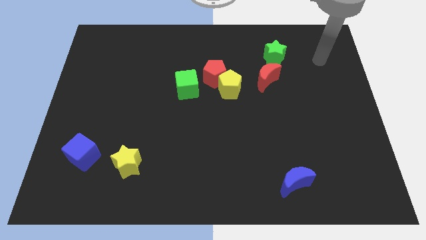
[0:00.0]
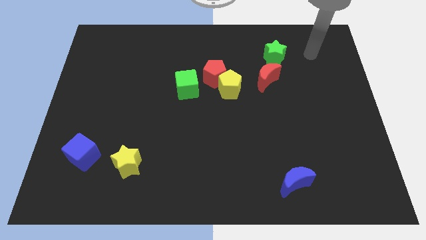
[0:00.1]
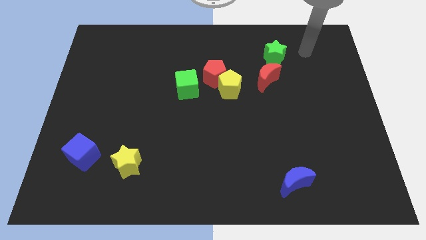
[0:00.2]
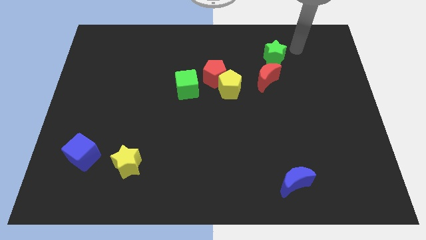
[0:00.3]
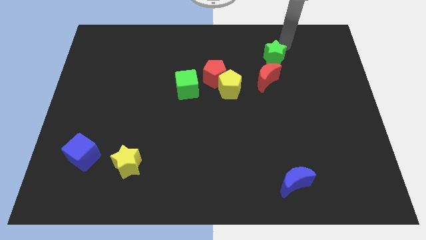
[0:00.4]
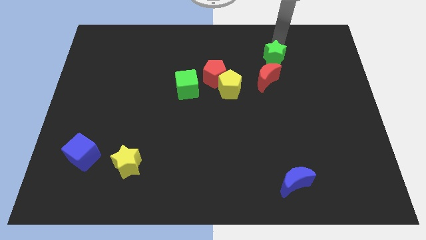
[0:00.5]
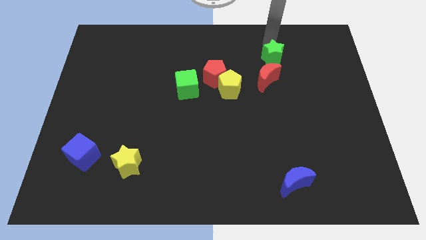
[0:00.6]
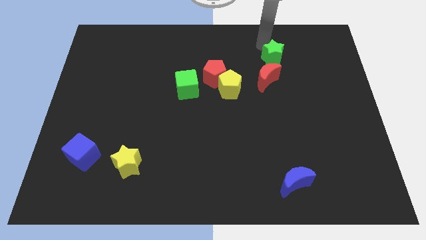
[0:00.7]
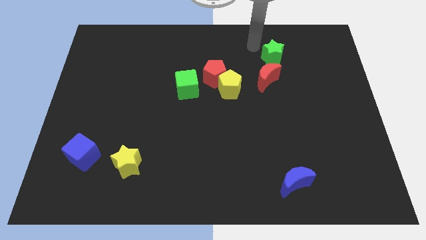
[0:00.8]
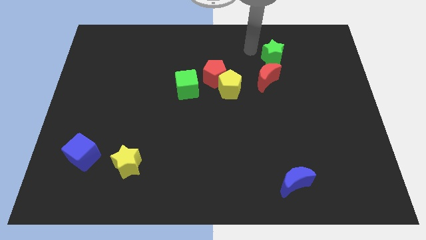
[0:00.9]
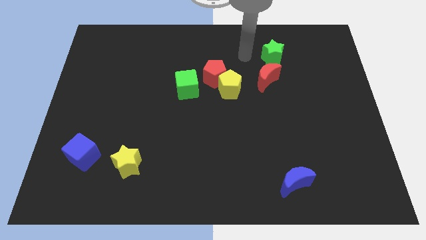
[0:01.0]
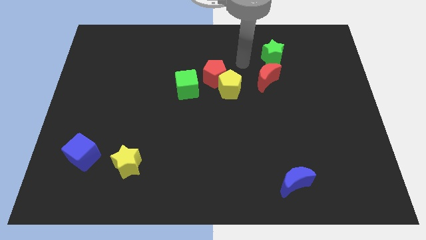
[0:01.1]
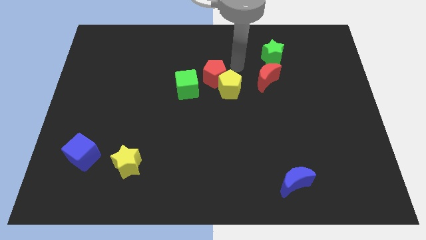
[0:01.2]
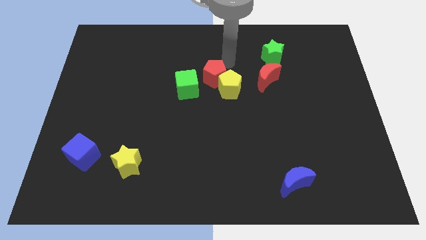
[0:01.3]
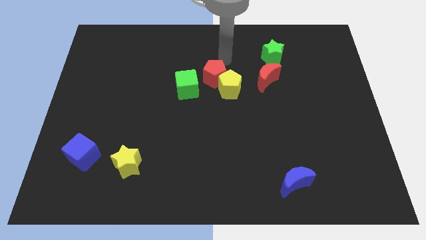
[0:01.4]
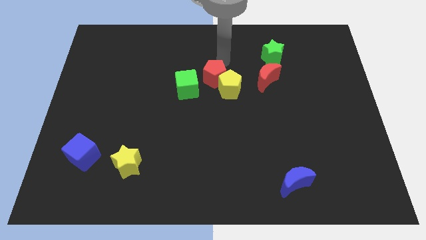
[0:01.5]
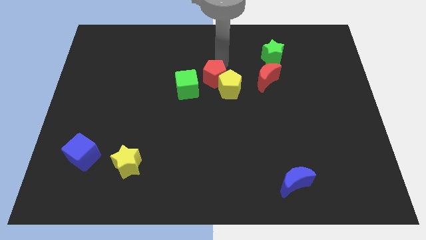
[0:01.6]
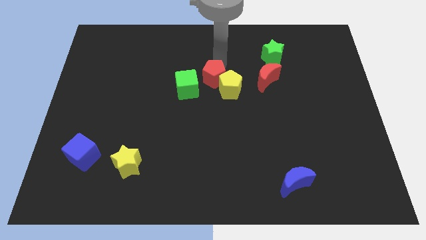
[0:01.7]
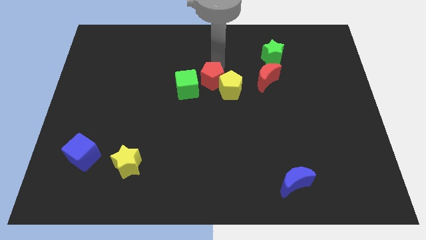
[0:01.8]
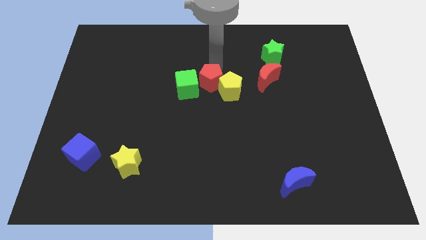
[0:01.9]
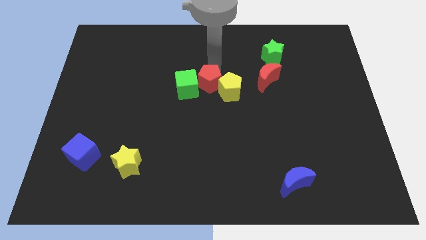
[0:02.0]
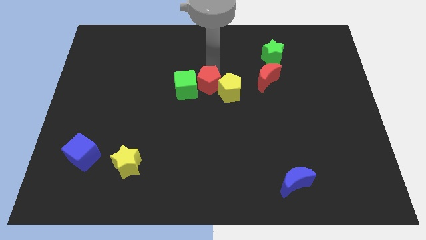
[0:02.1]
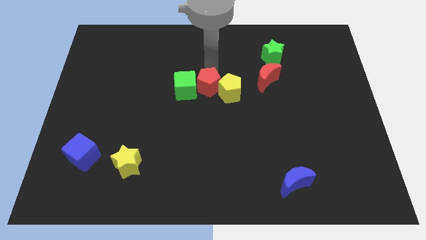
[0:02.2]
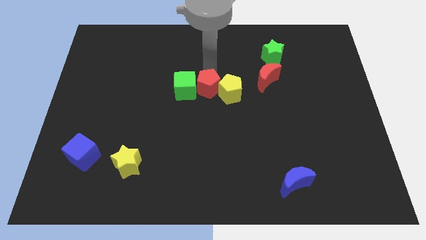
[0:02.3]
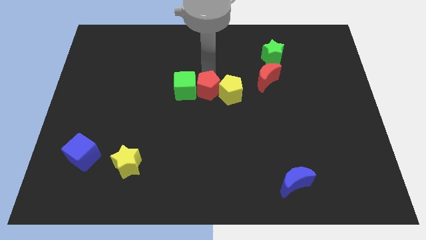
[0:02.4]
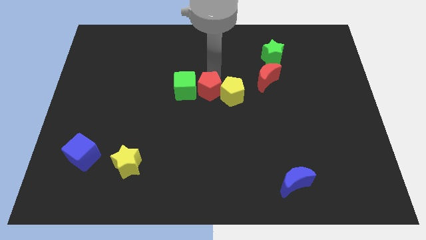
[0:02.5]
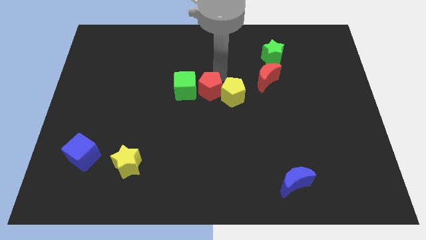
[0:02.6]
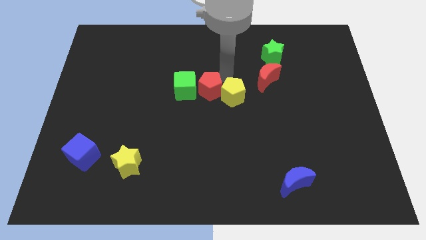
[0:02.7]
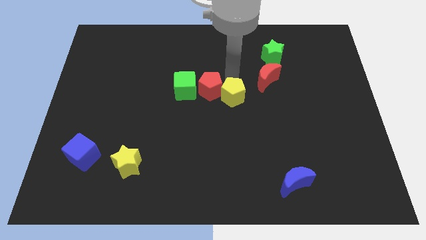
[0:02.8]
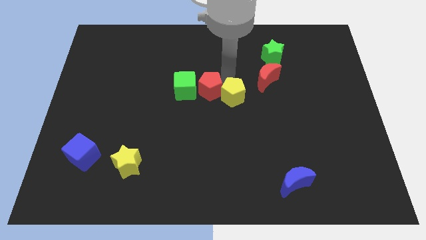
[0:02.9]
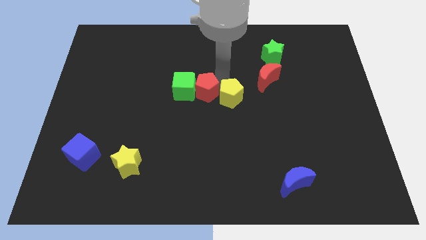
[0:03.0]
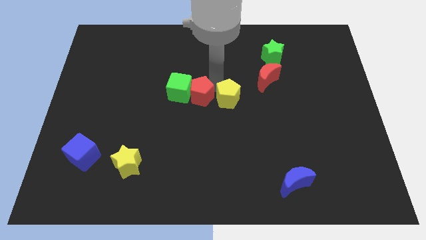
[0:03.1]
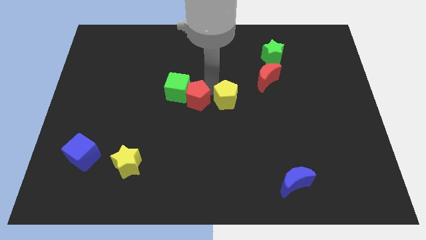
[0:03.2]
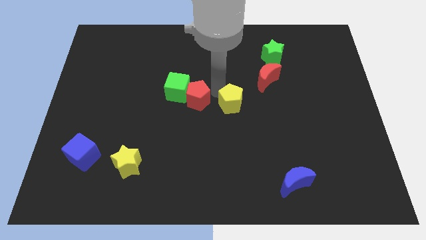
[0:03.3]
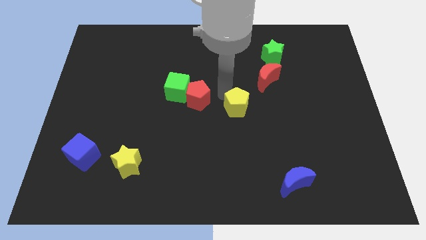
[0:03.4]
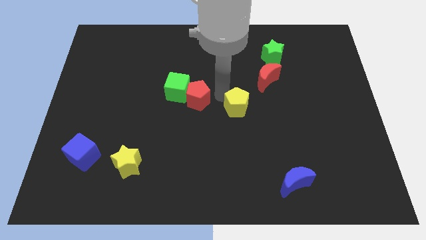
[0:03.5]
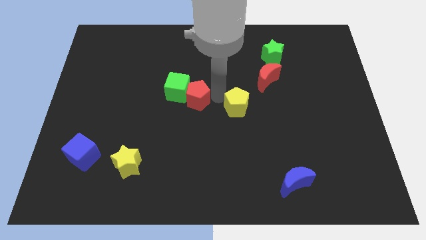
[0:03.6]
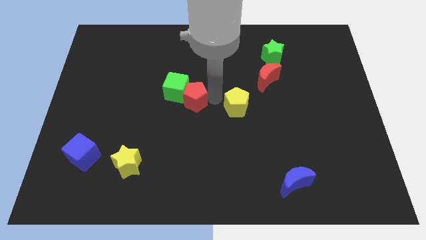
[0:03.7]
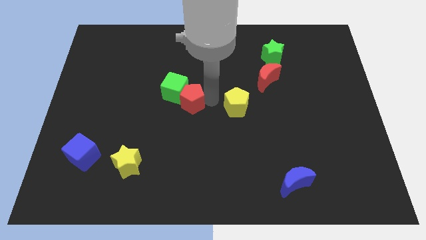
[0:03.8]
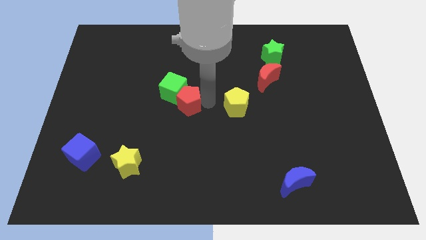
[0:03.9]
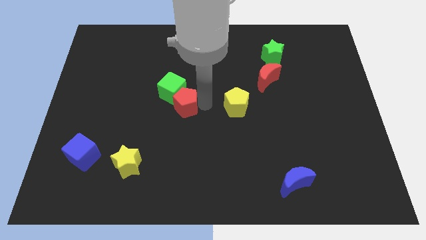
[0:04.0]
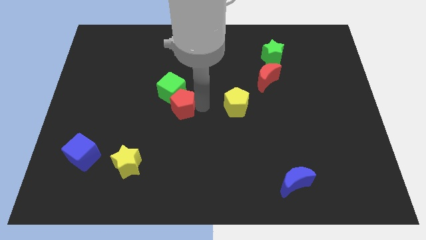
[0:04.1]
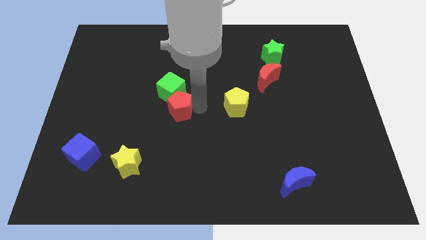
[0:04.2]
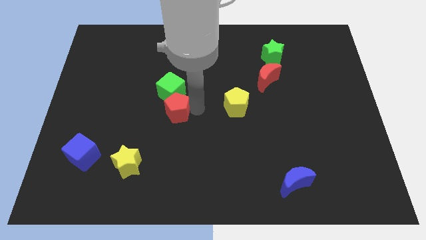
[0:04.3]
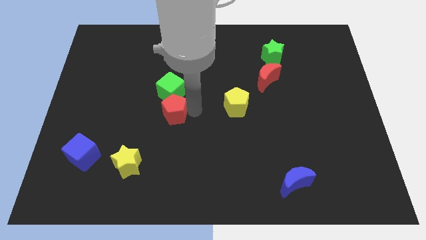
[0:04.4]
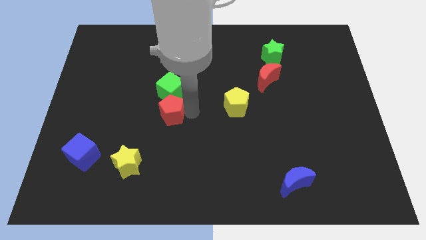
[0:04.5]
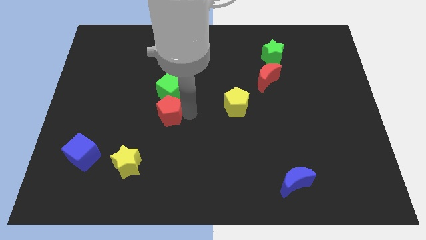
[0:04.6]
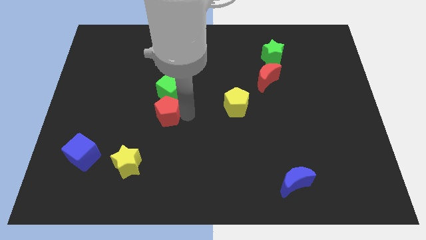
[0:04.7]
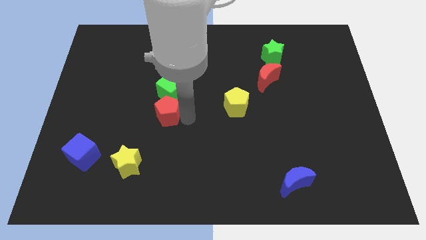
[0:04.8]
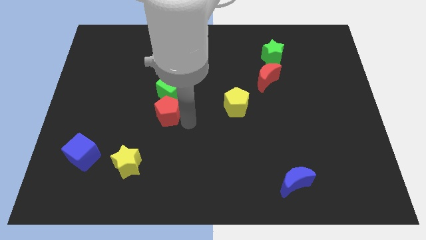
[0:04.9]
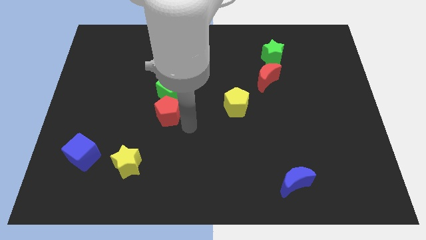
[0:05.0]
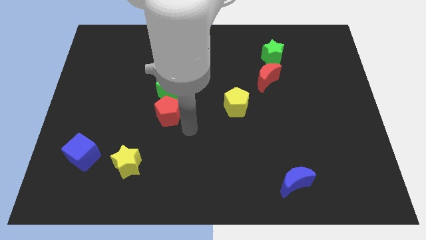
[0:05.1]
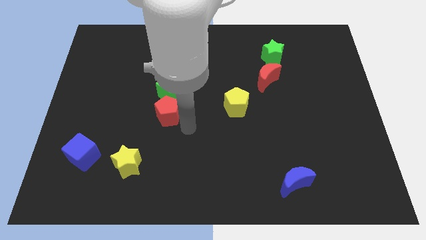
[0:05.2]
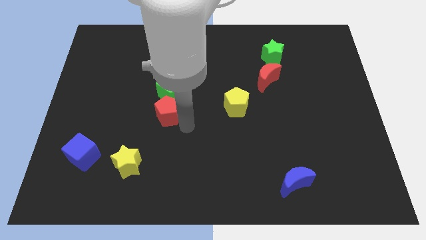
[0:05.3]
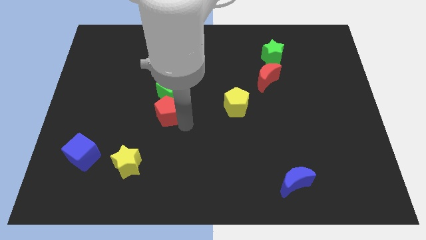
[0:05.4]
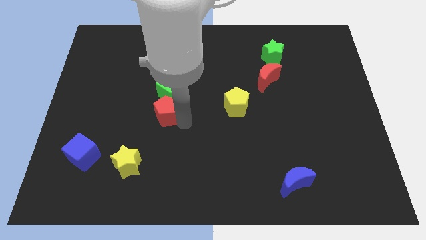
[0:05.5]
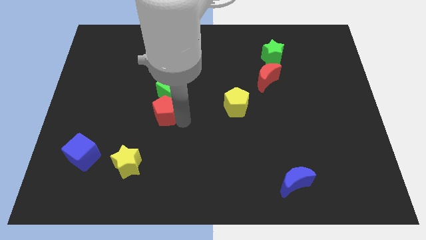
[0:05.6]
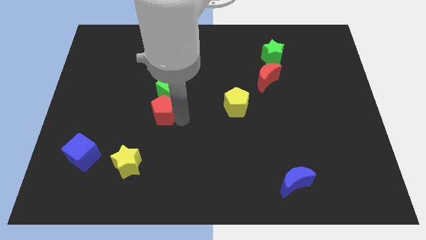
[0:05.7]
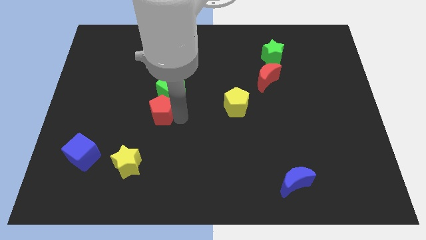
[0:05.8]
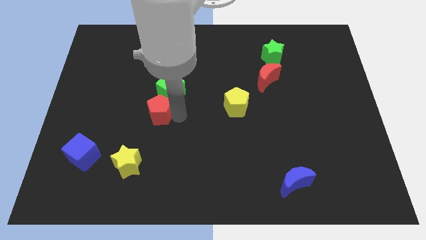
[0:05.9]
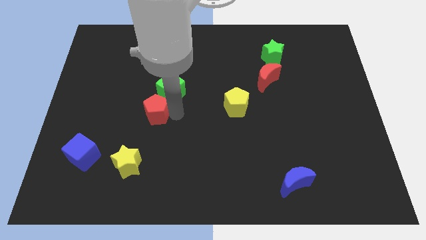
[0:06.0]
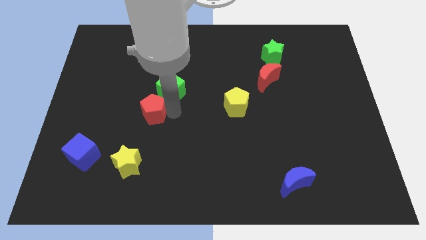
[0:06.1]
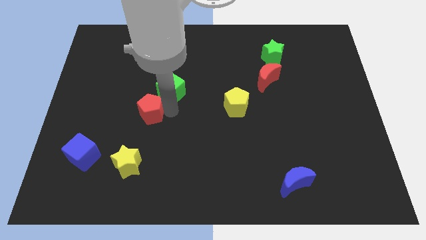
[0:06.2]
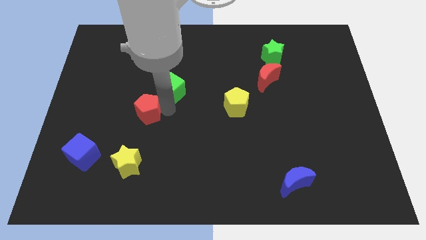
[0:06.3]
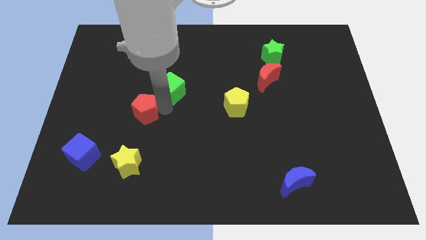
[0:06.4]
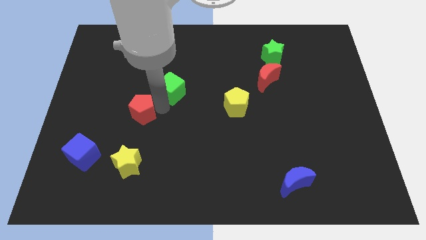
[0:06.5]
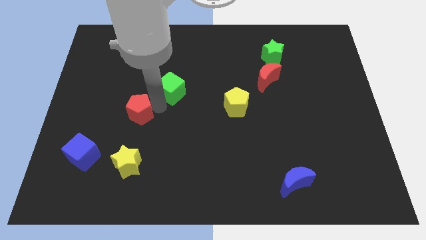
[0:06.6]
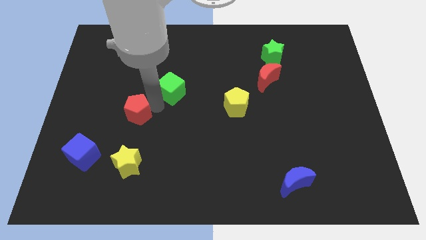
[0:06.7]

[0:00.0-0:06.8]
move the red pentagon diagonally downwards and to the left

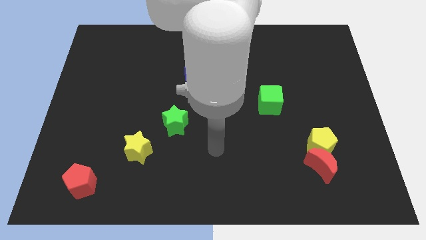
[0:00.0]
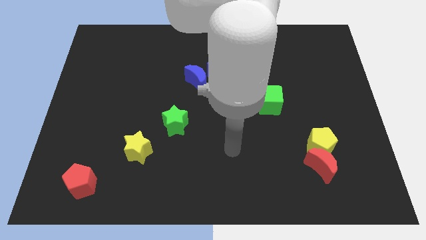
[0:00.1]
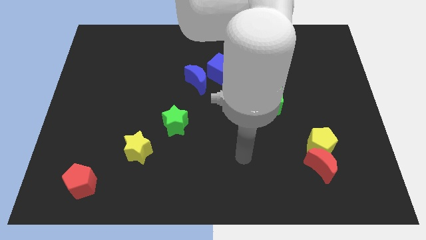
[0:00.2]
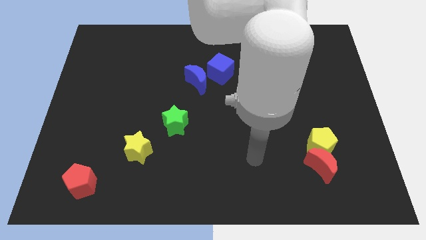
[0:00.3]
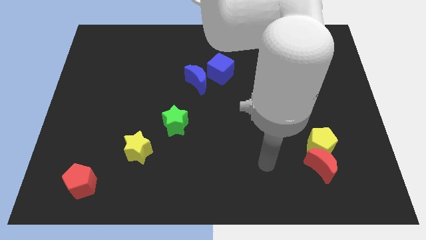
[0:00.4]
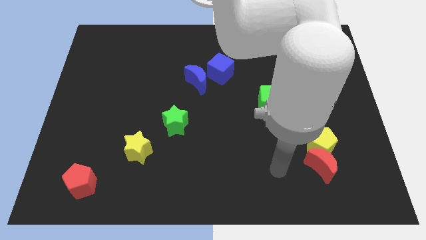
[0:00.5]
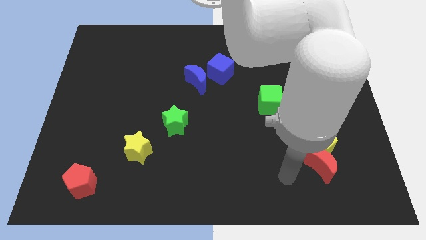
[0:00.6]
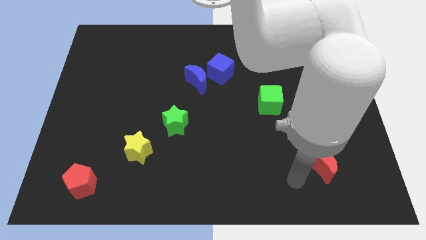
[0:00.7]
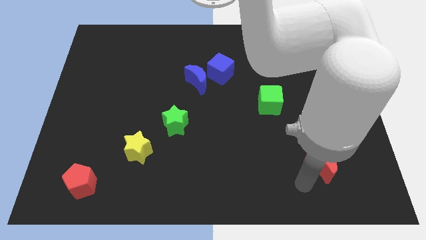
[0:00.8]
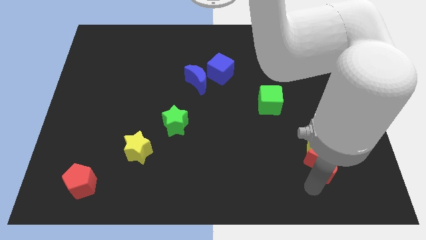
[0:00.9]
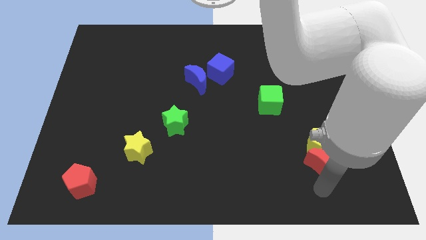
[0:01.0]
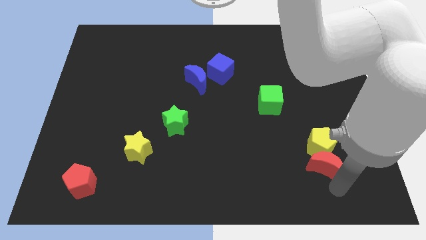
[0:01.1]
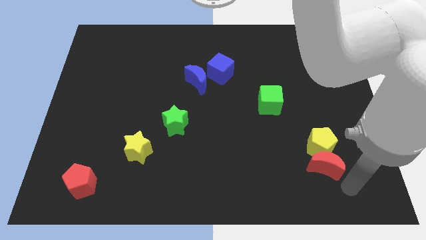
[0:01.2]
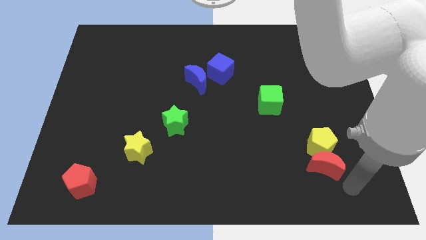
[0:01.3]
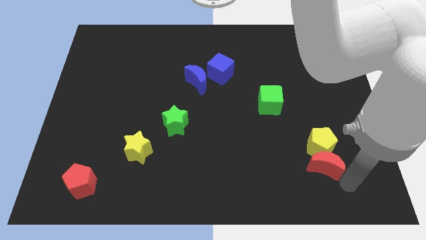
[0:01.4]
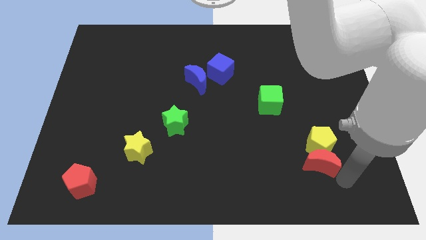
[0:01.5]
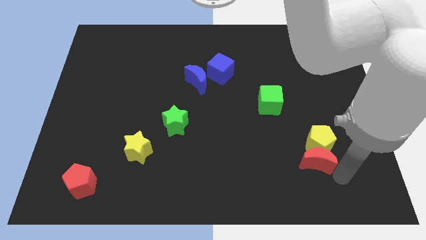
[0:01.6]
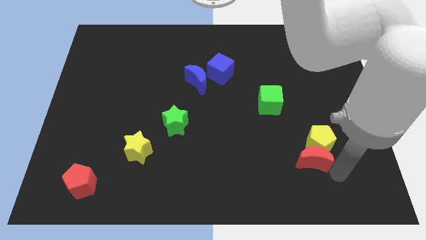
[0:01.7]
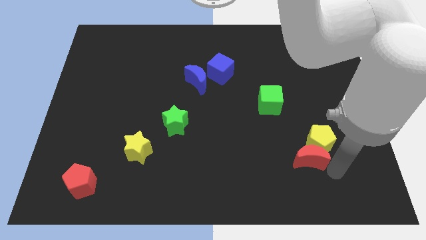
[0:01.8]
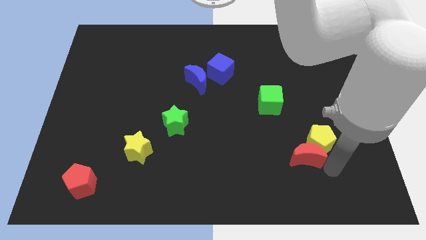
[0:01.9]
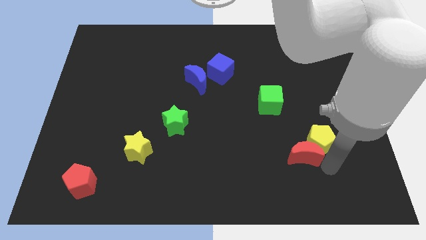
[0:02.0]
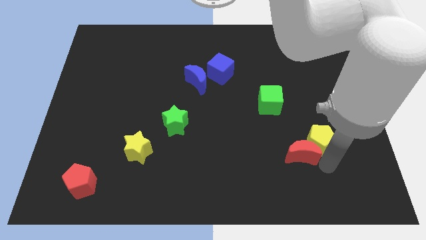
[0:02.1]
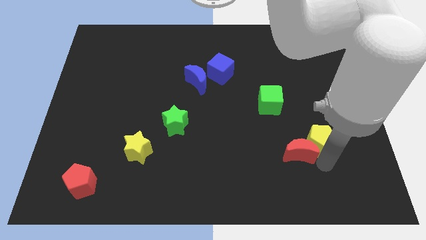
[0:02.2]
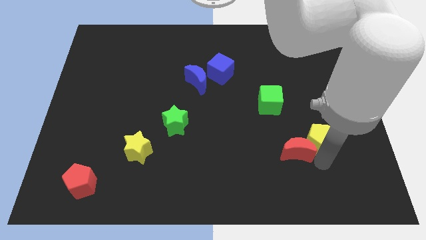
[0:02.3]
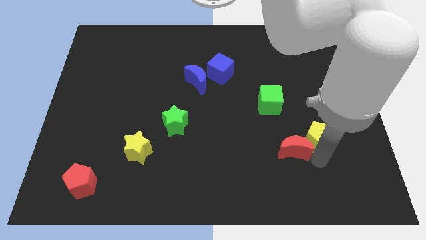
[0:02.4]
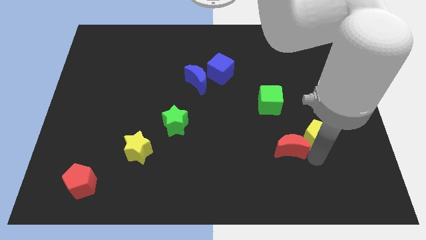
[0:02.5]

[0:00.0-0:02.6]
slightly push the red moon diagonally upwards and left
